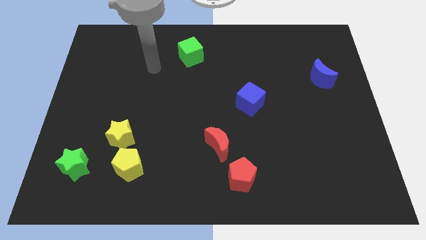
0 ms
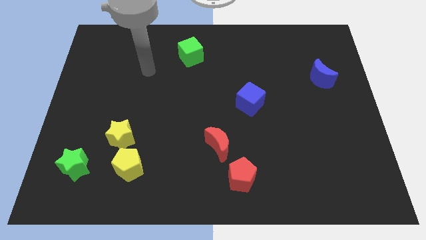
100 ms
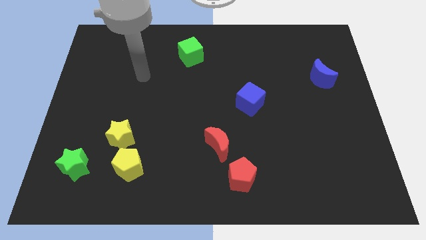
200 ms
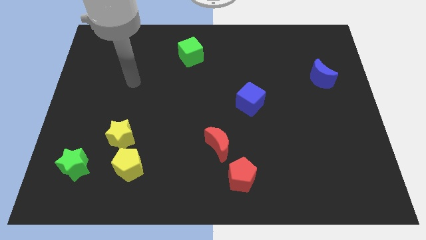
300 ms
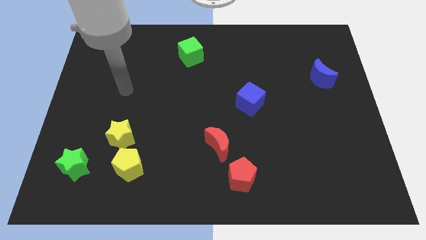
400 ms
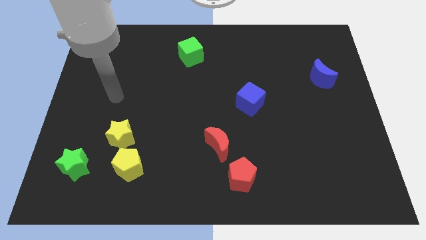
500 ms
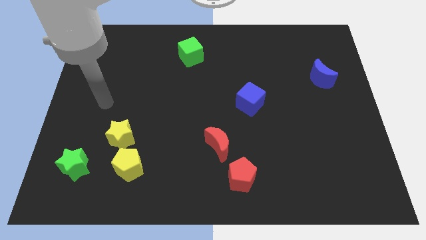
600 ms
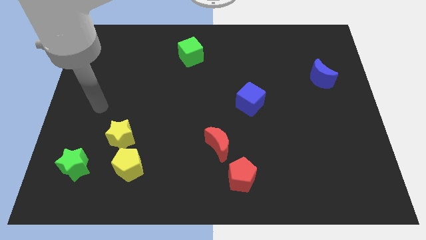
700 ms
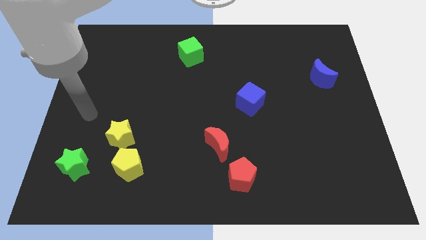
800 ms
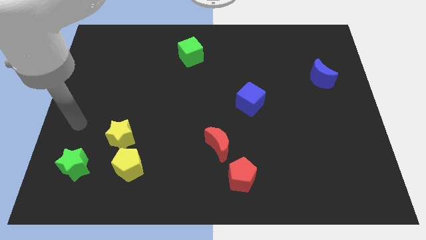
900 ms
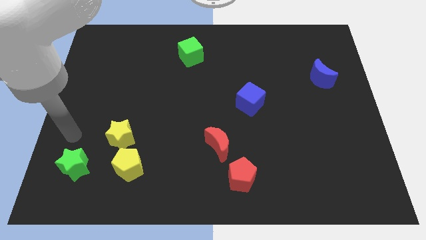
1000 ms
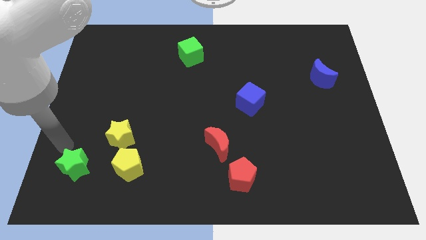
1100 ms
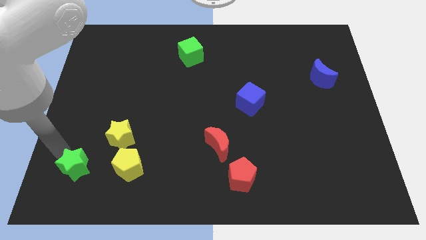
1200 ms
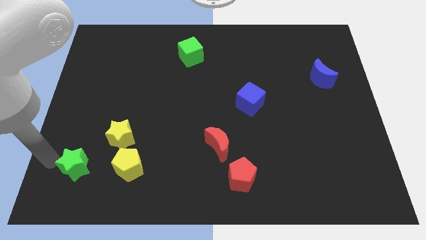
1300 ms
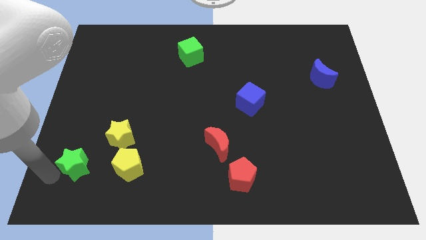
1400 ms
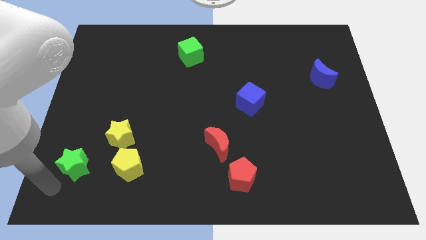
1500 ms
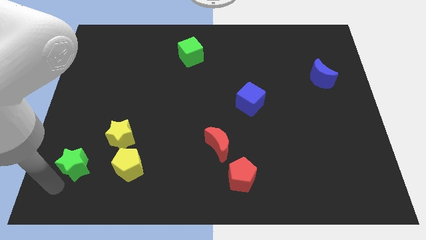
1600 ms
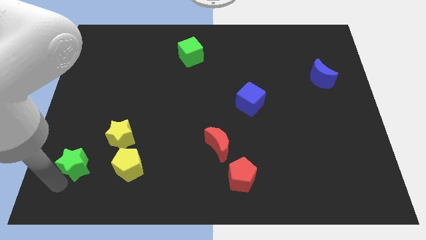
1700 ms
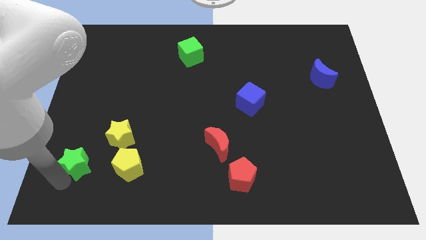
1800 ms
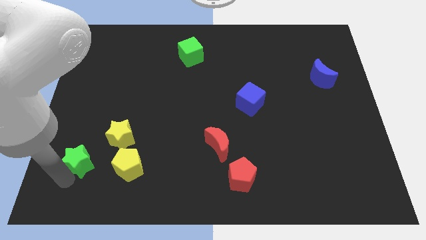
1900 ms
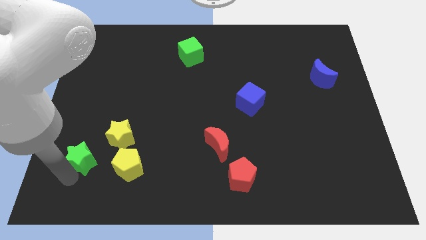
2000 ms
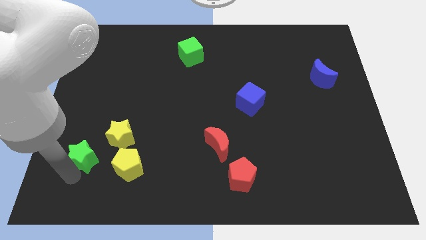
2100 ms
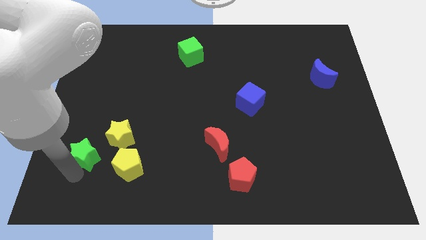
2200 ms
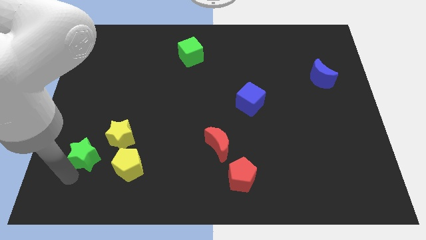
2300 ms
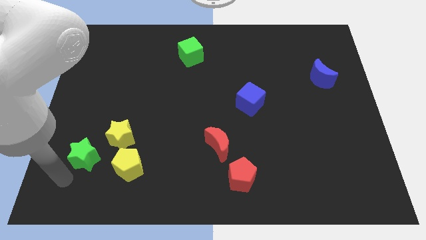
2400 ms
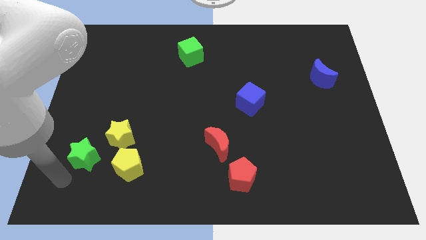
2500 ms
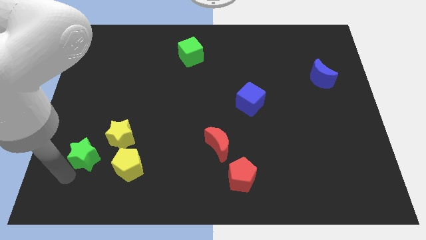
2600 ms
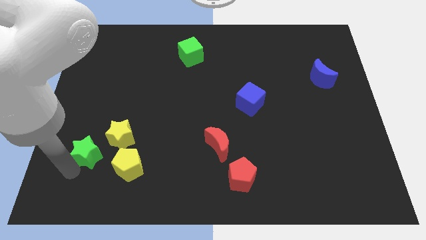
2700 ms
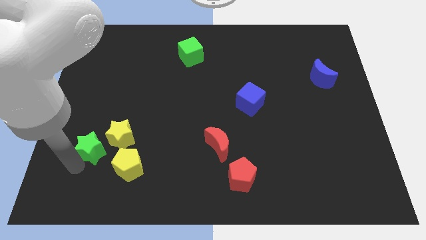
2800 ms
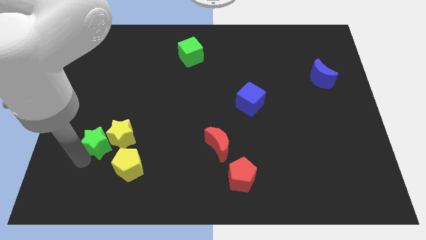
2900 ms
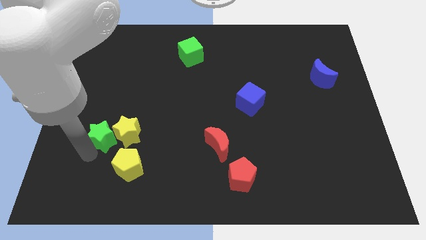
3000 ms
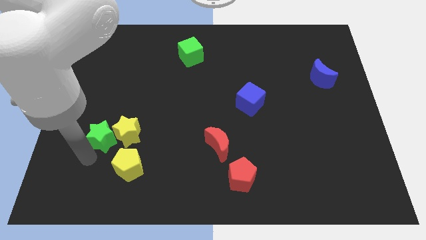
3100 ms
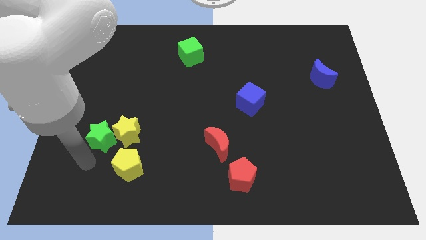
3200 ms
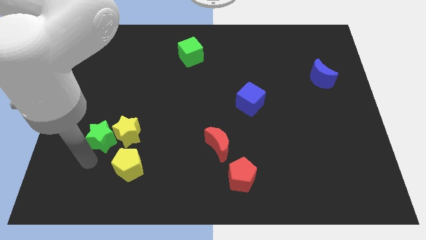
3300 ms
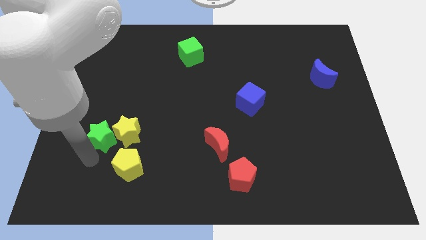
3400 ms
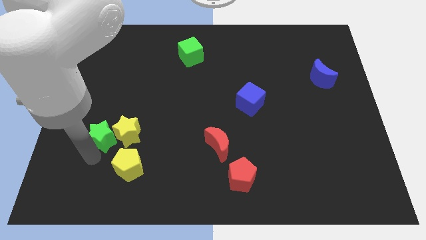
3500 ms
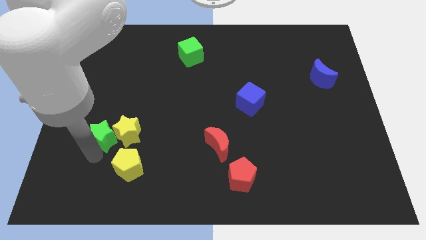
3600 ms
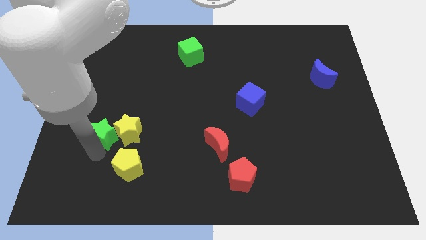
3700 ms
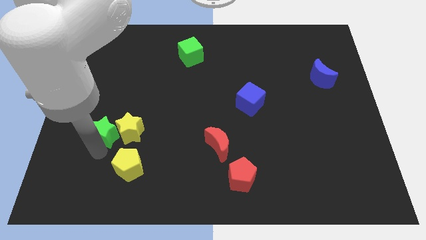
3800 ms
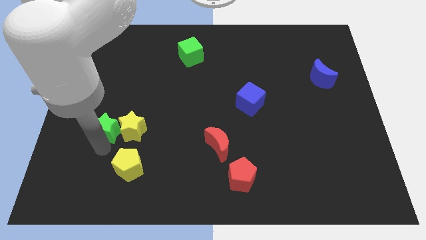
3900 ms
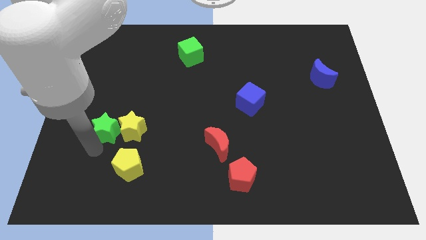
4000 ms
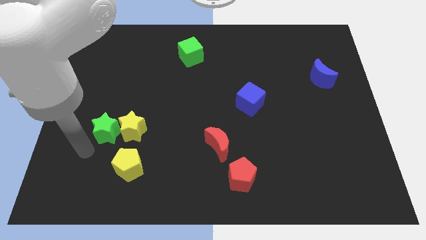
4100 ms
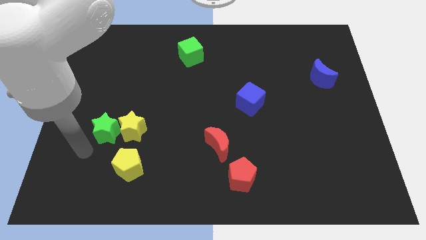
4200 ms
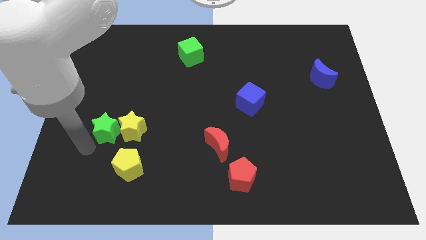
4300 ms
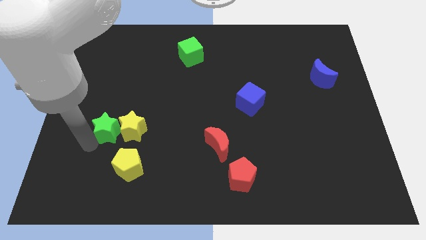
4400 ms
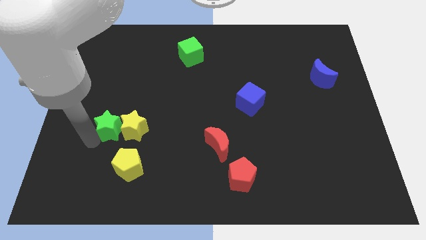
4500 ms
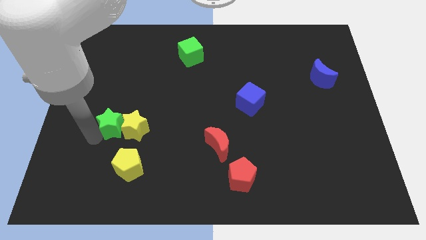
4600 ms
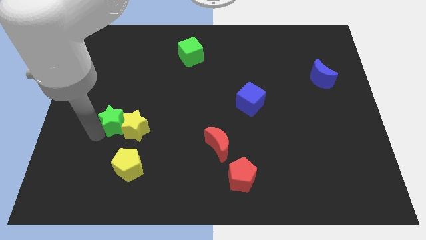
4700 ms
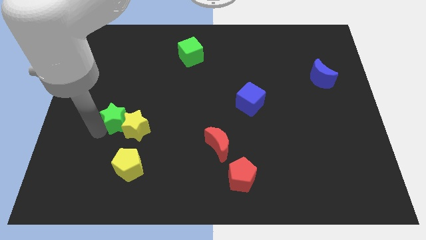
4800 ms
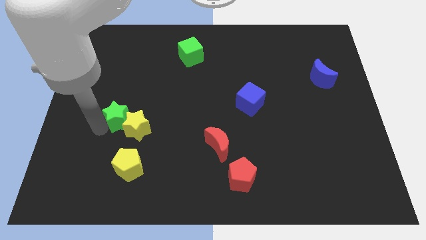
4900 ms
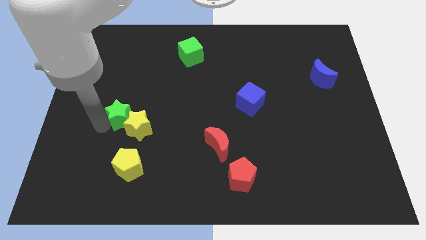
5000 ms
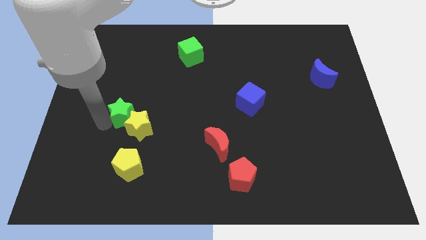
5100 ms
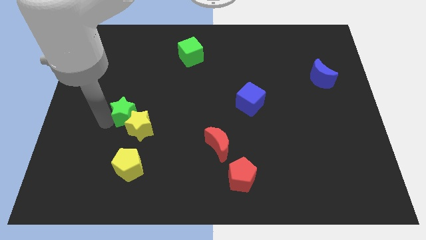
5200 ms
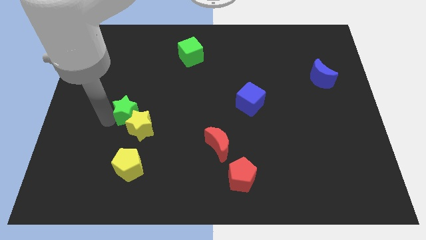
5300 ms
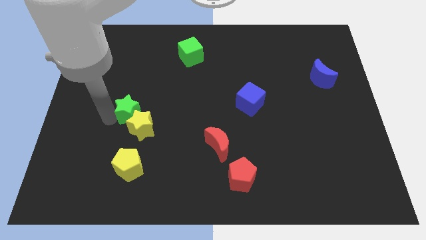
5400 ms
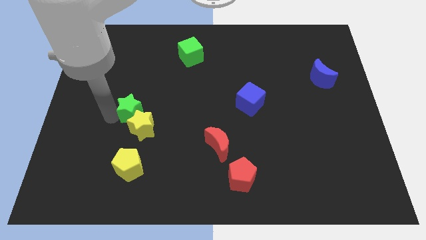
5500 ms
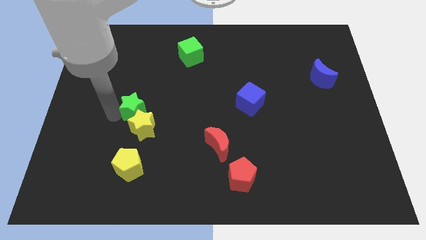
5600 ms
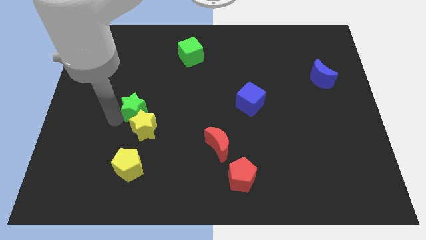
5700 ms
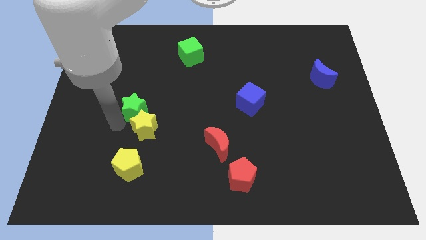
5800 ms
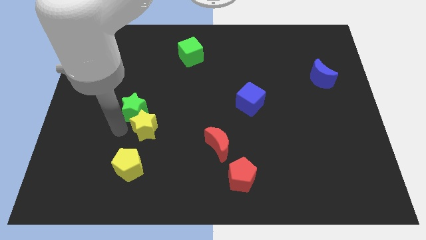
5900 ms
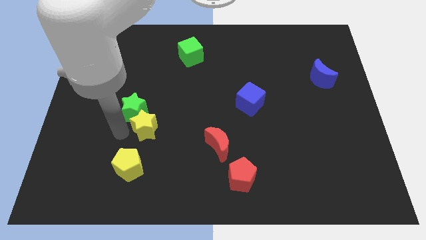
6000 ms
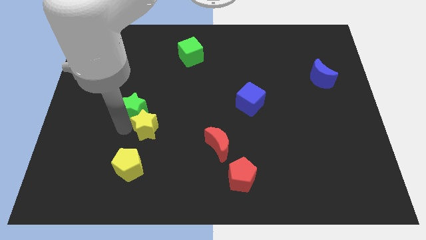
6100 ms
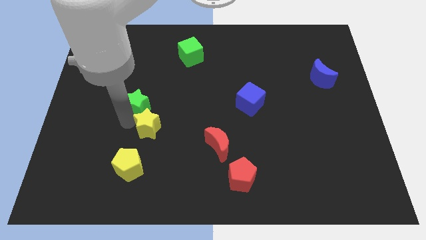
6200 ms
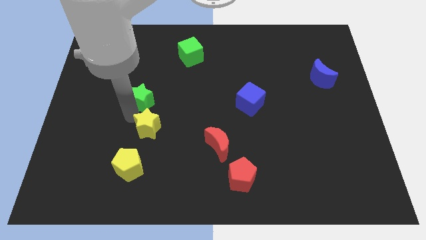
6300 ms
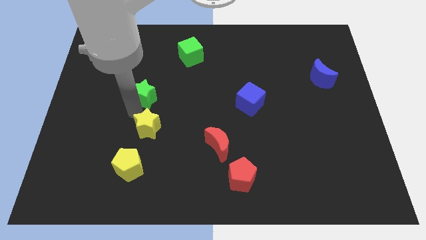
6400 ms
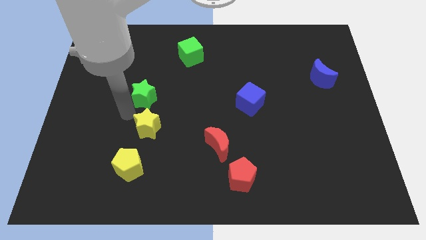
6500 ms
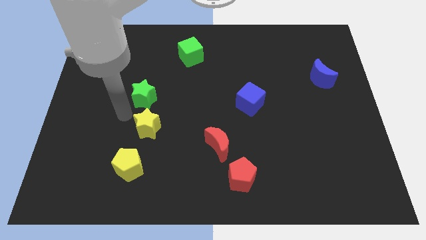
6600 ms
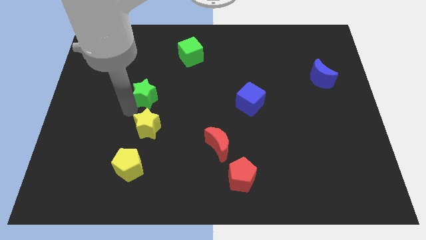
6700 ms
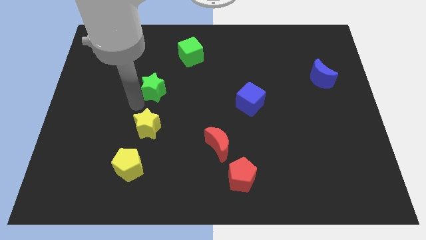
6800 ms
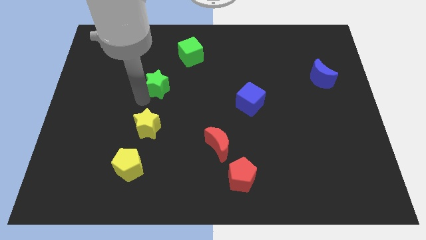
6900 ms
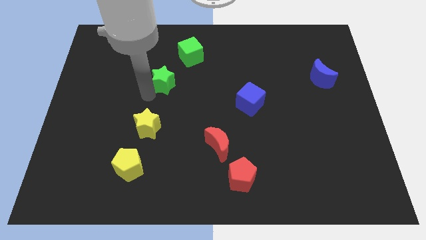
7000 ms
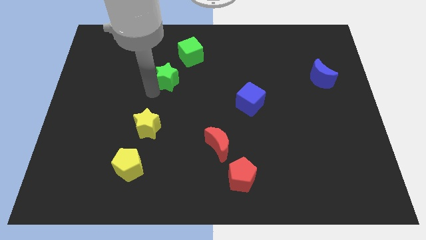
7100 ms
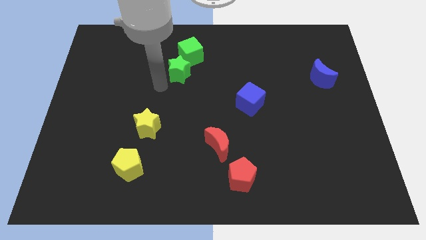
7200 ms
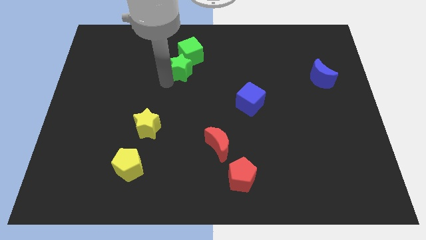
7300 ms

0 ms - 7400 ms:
push the green star to the green cube

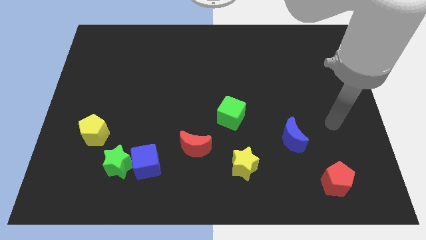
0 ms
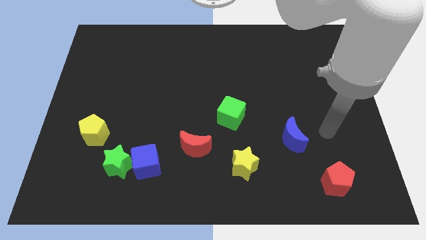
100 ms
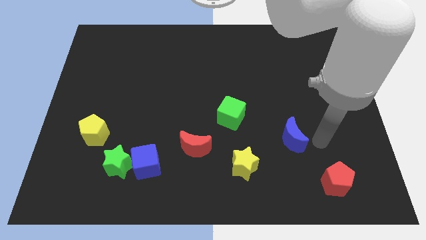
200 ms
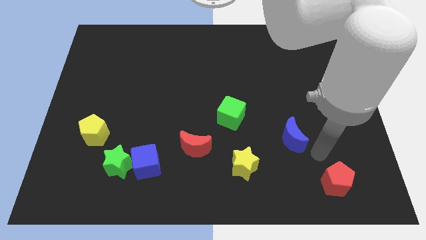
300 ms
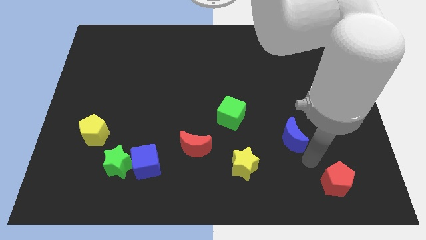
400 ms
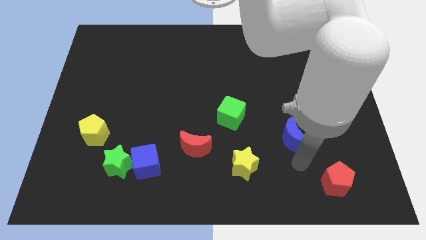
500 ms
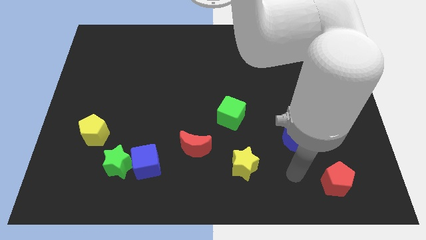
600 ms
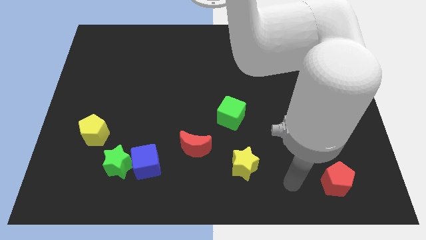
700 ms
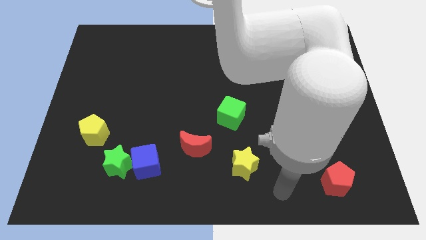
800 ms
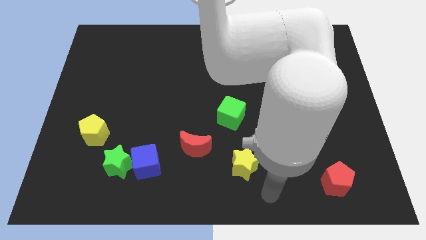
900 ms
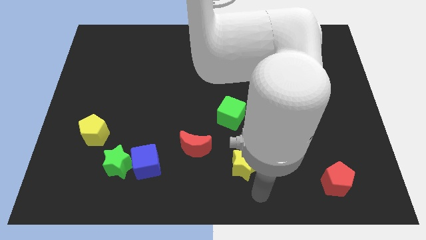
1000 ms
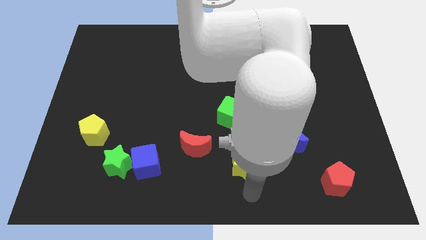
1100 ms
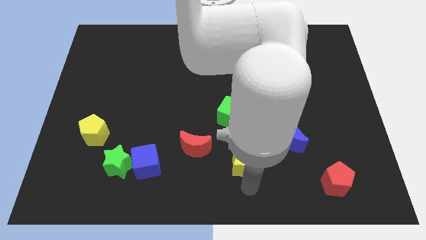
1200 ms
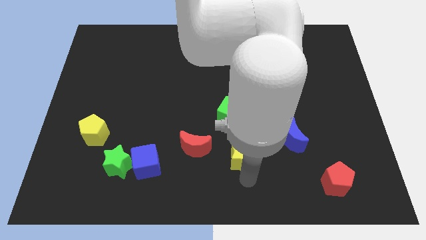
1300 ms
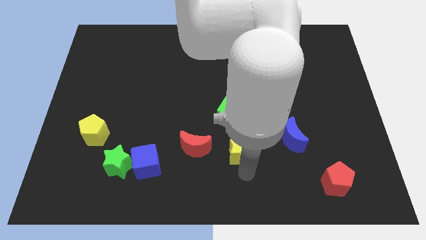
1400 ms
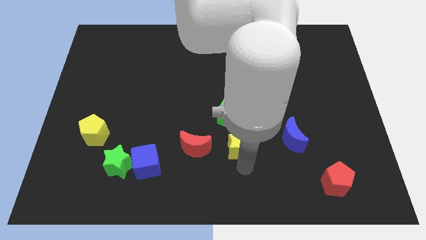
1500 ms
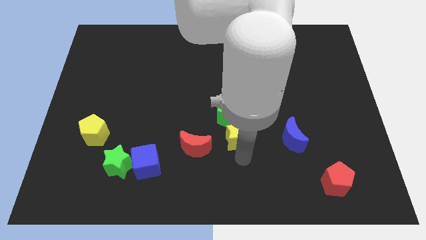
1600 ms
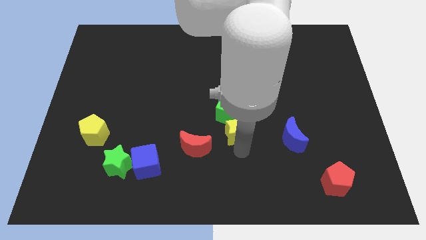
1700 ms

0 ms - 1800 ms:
put the yellow star to the green cube
